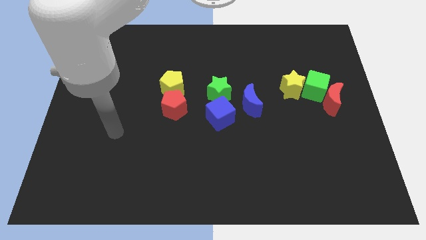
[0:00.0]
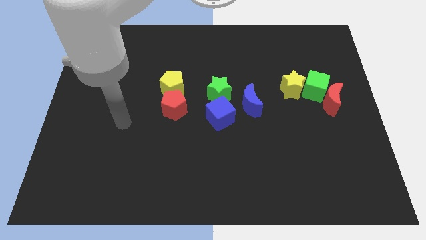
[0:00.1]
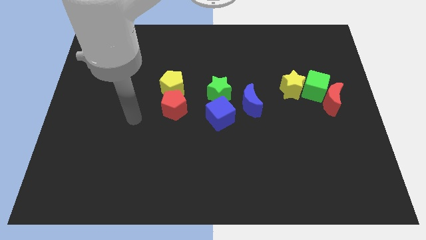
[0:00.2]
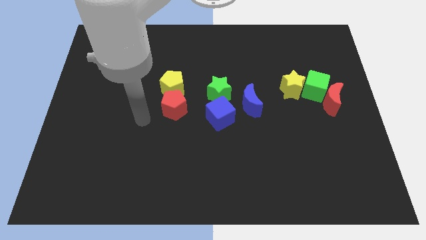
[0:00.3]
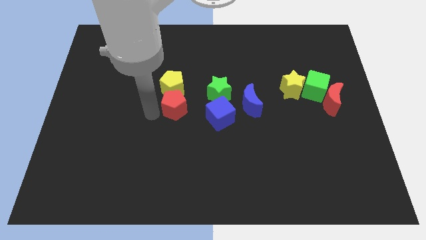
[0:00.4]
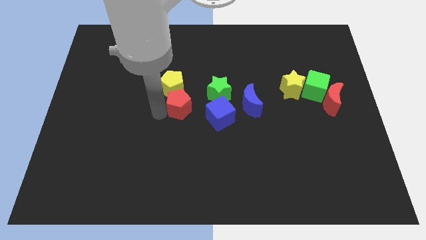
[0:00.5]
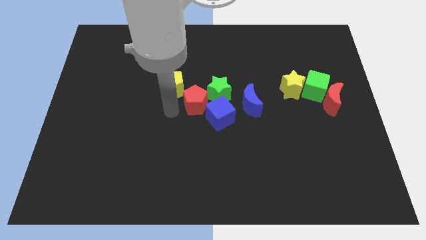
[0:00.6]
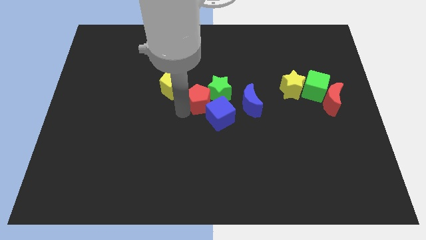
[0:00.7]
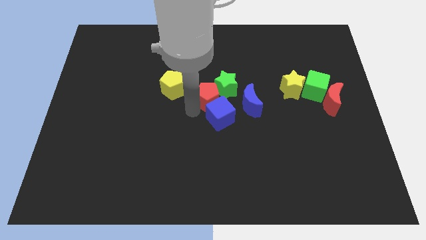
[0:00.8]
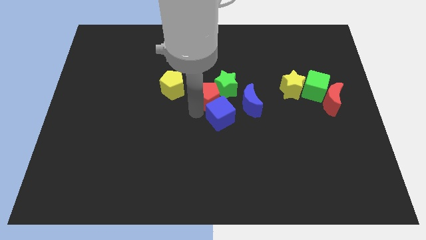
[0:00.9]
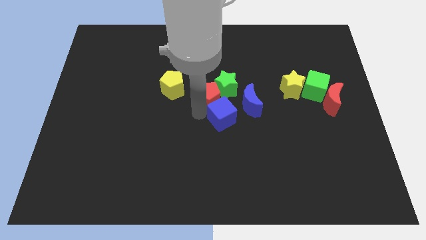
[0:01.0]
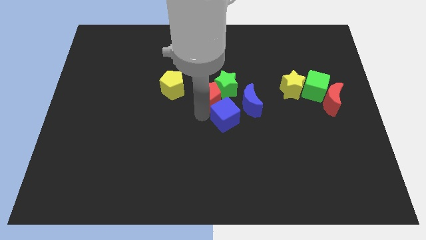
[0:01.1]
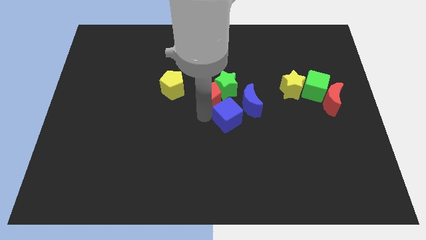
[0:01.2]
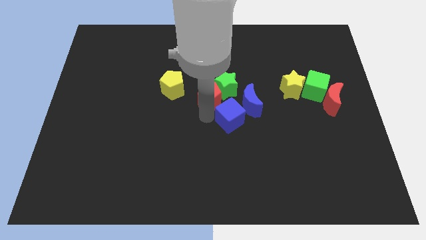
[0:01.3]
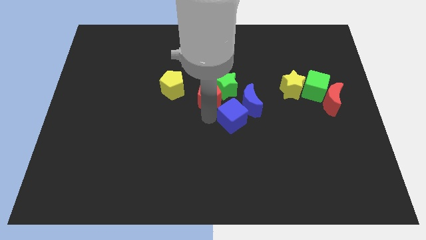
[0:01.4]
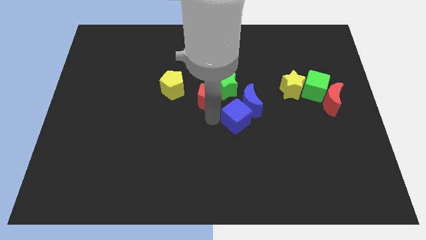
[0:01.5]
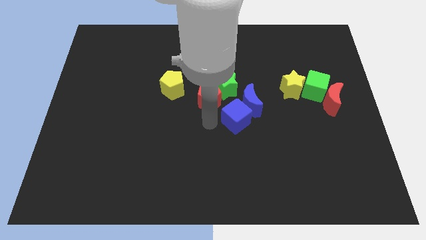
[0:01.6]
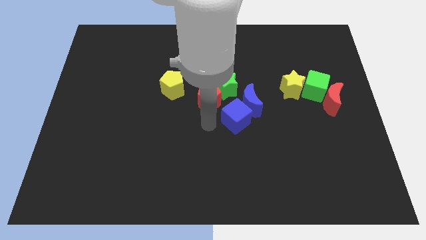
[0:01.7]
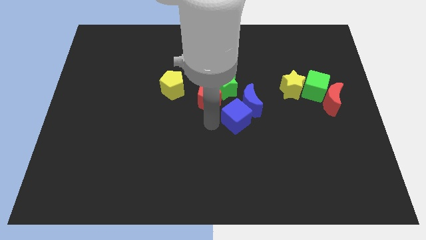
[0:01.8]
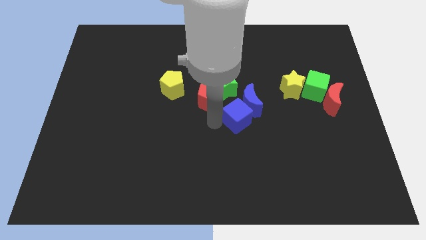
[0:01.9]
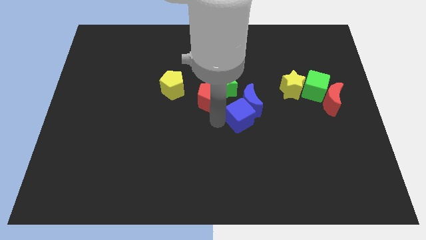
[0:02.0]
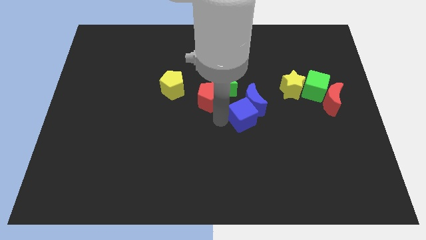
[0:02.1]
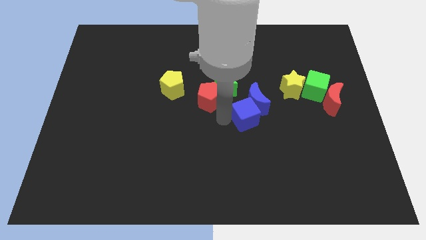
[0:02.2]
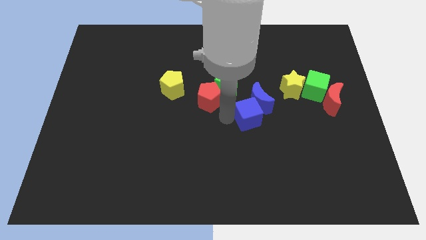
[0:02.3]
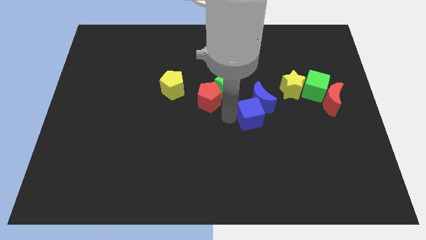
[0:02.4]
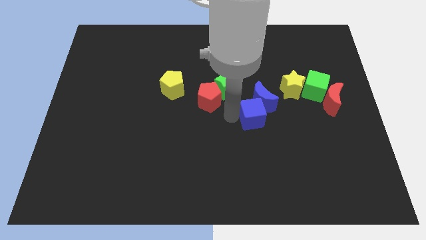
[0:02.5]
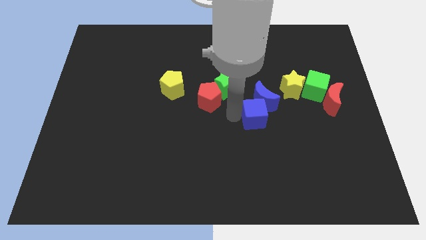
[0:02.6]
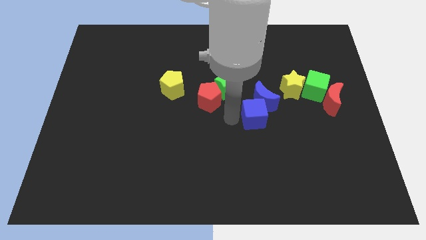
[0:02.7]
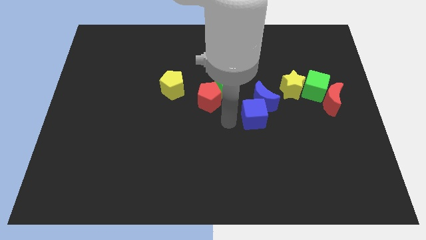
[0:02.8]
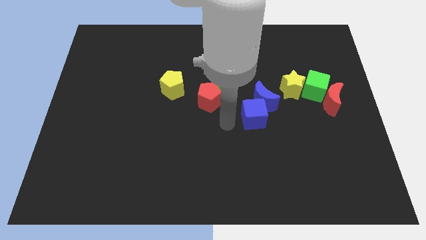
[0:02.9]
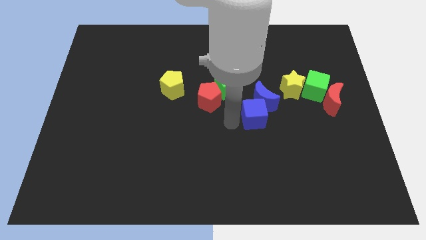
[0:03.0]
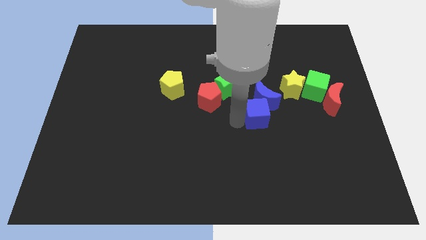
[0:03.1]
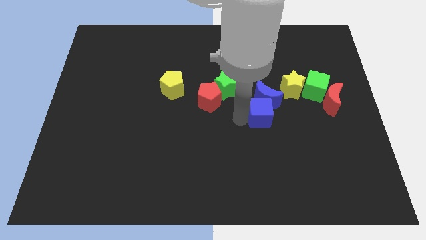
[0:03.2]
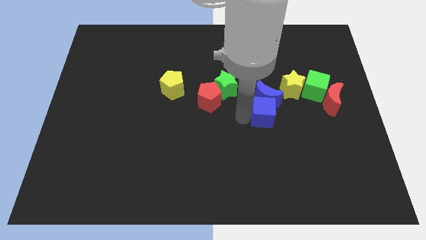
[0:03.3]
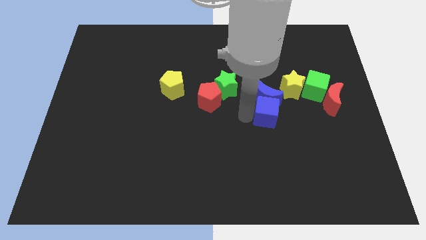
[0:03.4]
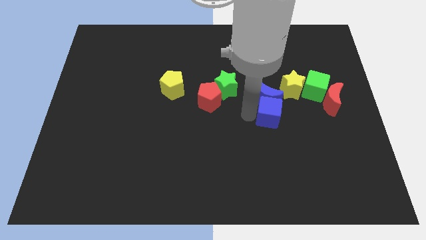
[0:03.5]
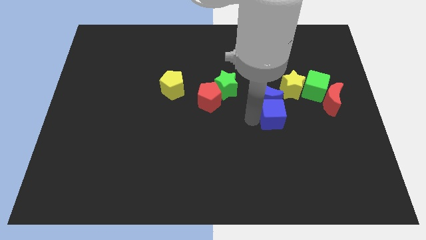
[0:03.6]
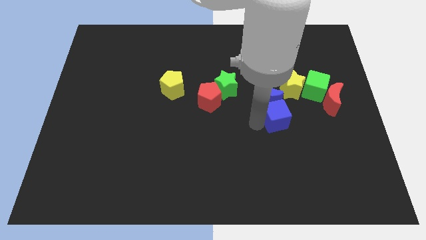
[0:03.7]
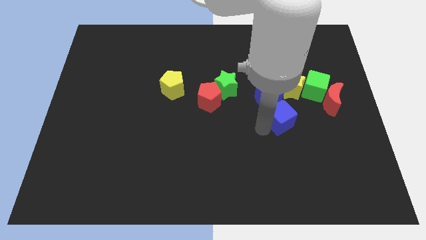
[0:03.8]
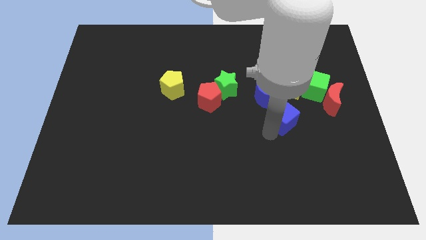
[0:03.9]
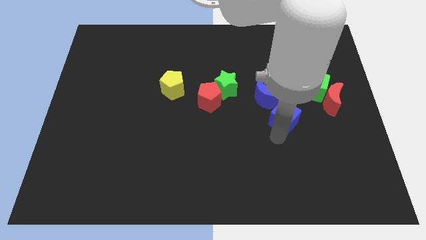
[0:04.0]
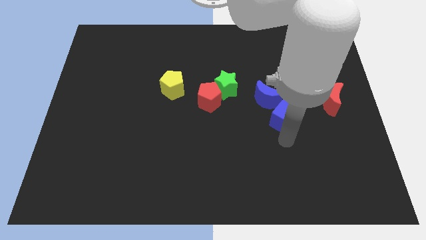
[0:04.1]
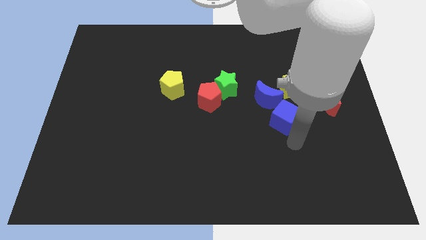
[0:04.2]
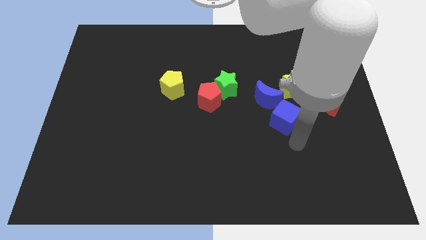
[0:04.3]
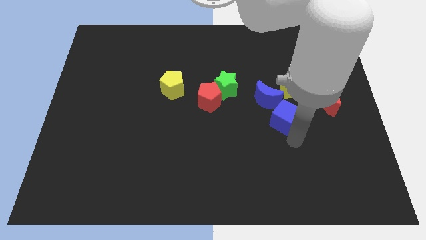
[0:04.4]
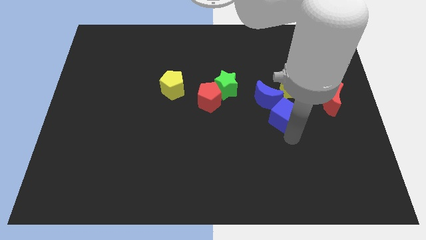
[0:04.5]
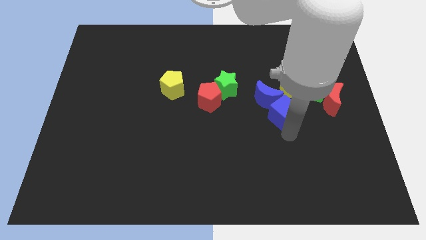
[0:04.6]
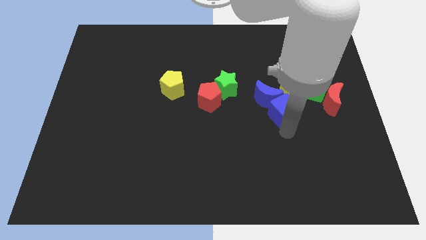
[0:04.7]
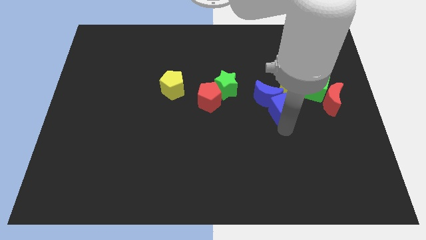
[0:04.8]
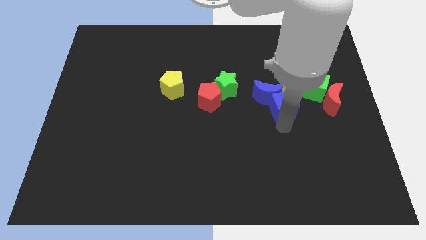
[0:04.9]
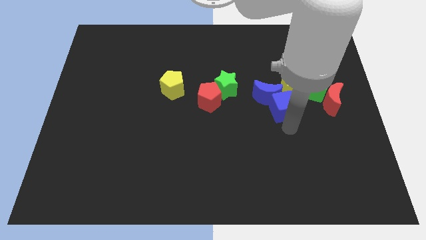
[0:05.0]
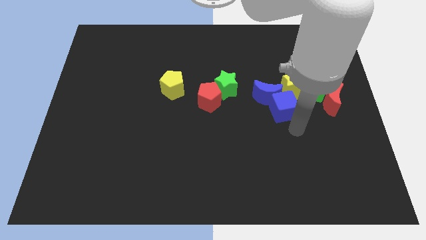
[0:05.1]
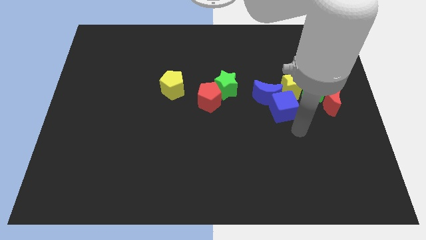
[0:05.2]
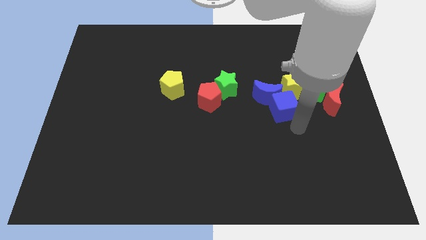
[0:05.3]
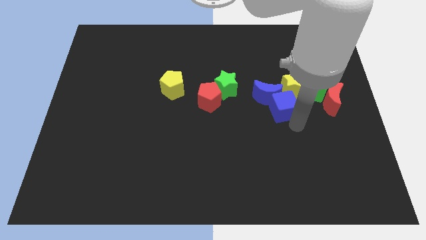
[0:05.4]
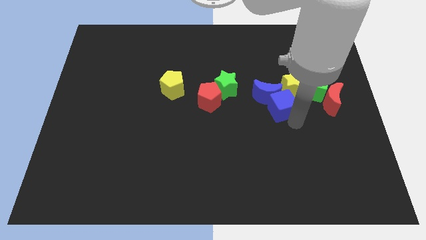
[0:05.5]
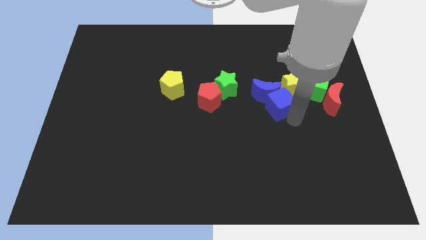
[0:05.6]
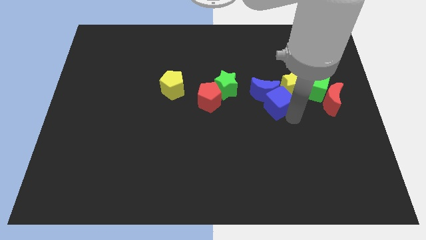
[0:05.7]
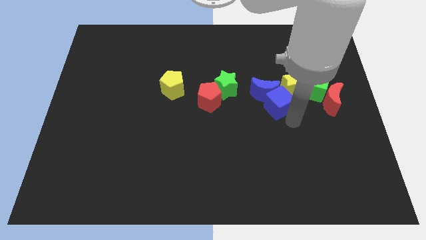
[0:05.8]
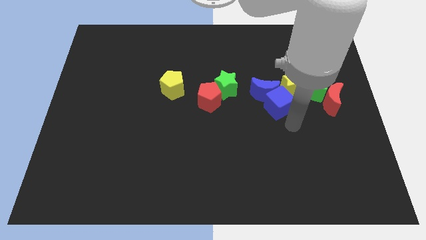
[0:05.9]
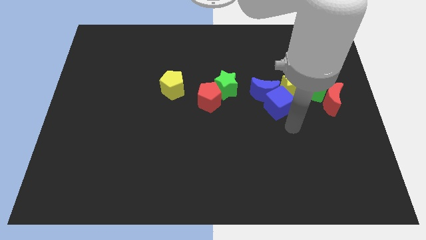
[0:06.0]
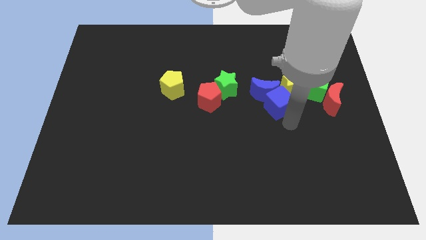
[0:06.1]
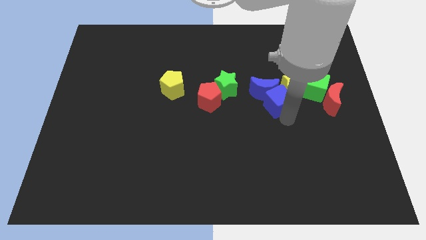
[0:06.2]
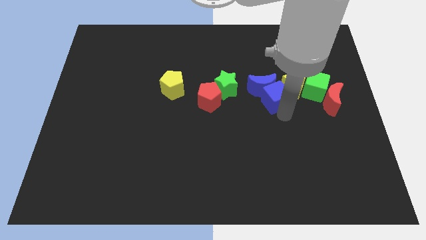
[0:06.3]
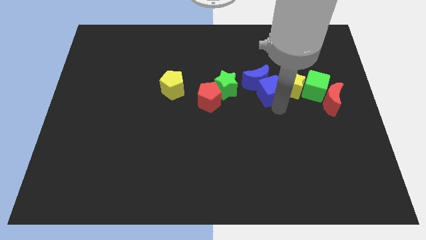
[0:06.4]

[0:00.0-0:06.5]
move the blue cube diagonally up and to the left of the yellow star

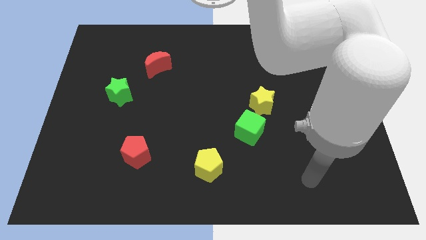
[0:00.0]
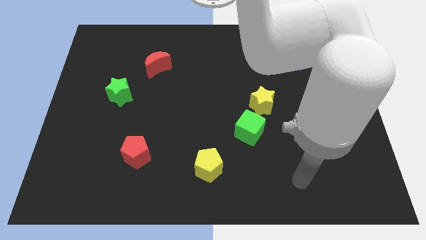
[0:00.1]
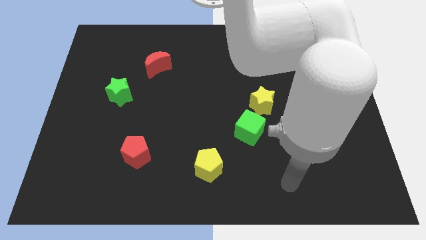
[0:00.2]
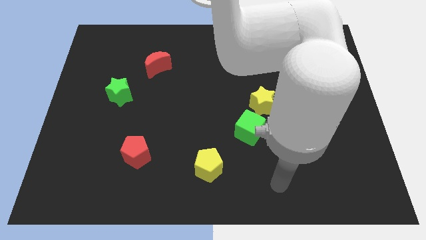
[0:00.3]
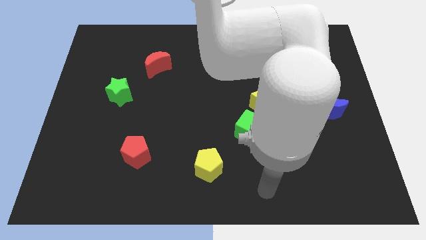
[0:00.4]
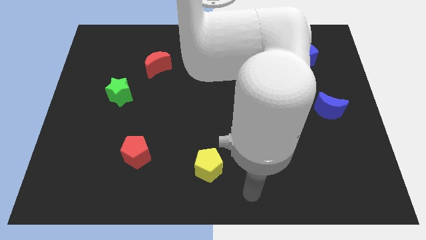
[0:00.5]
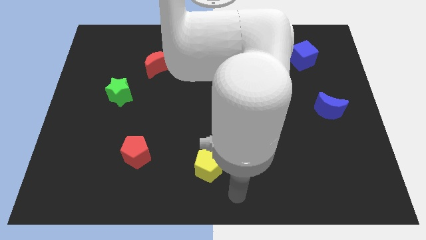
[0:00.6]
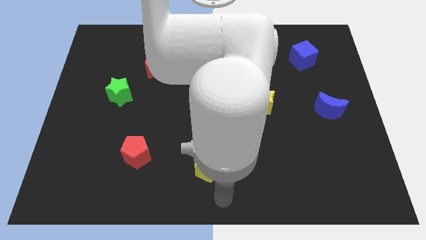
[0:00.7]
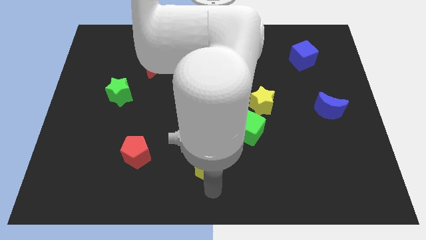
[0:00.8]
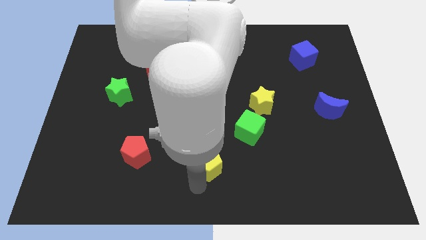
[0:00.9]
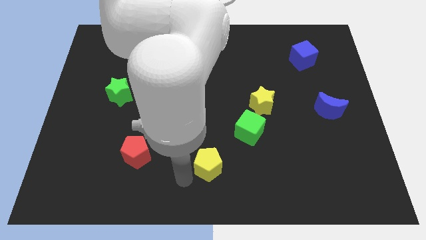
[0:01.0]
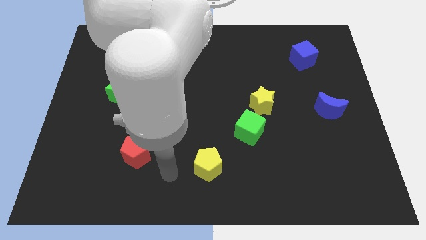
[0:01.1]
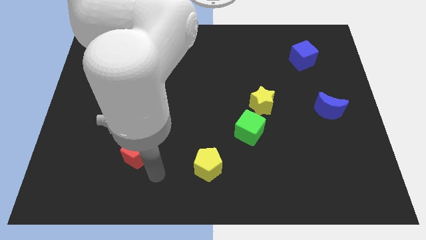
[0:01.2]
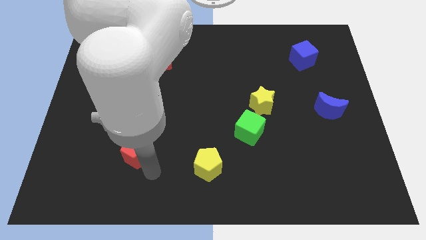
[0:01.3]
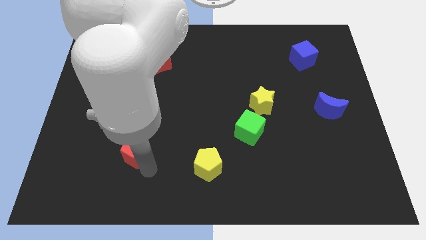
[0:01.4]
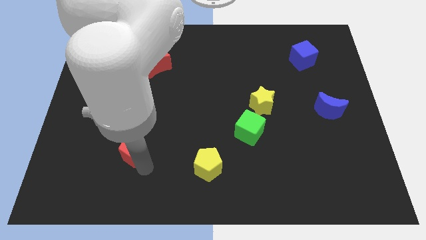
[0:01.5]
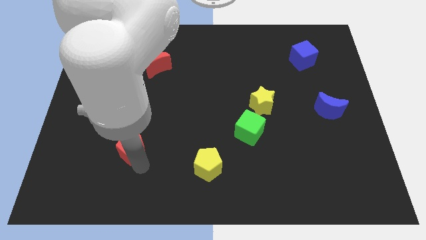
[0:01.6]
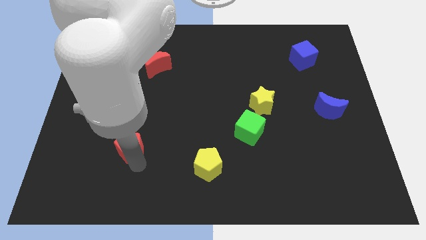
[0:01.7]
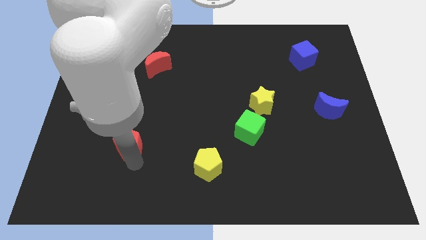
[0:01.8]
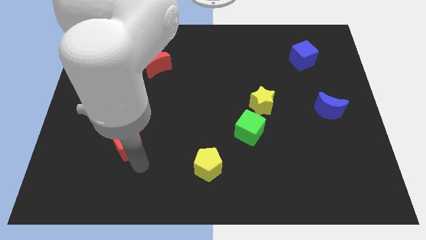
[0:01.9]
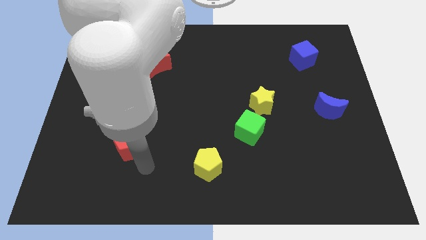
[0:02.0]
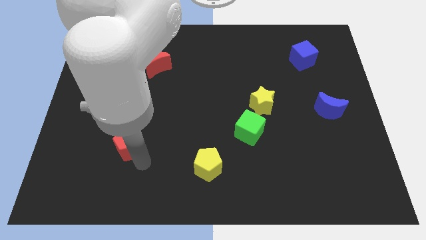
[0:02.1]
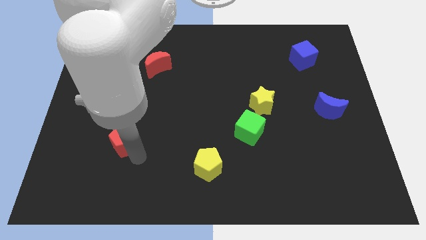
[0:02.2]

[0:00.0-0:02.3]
slide the red pentagon to the bottom side of the green star
